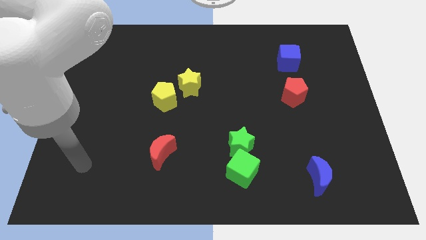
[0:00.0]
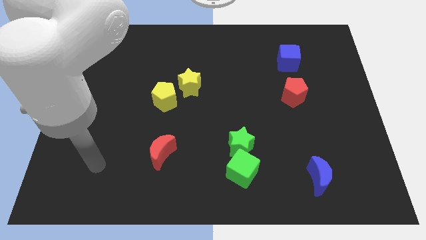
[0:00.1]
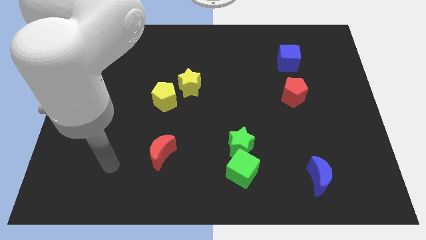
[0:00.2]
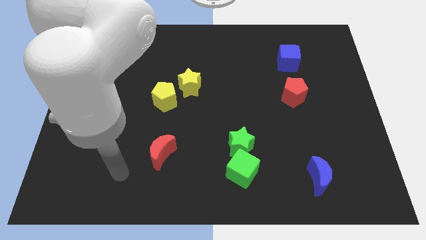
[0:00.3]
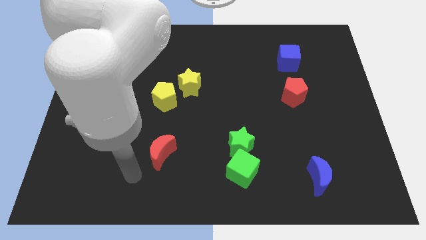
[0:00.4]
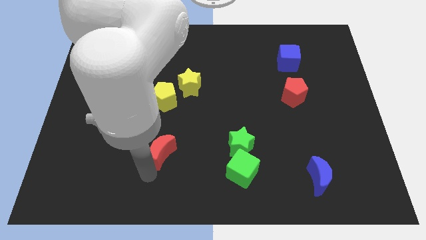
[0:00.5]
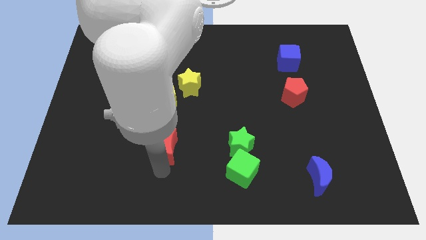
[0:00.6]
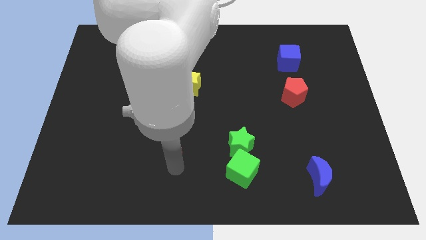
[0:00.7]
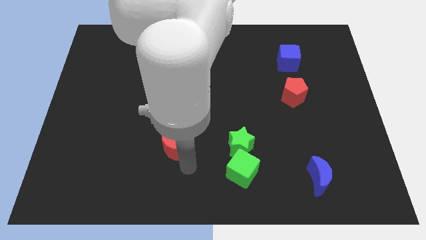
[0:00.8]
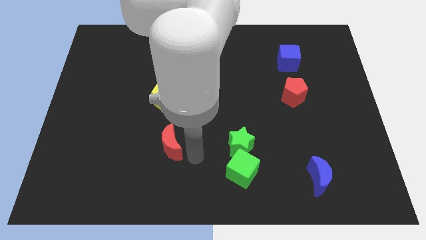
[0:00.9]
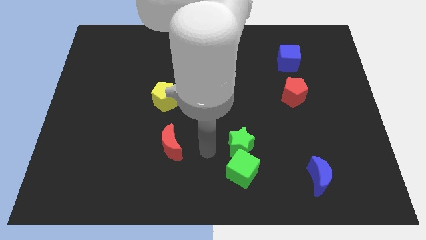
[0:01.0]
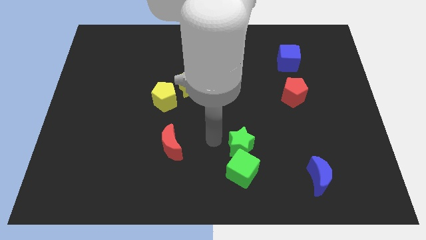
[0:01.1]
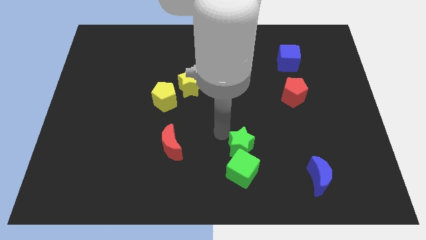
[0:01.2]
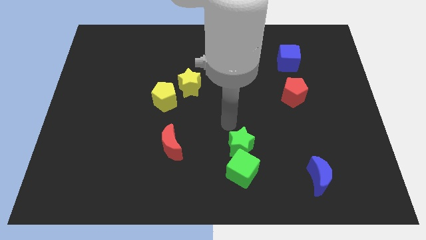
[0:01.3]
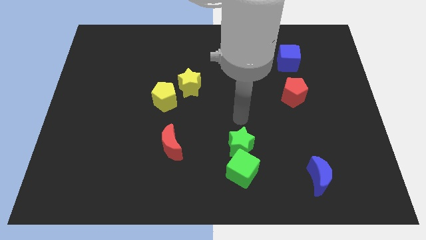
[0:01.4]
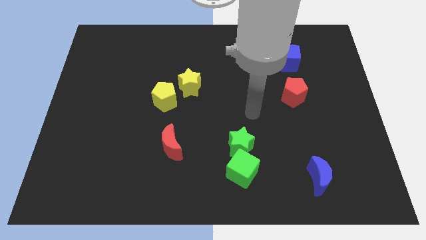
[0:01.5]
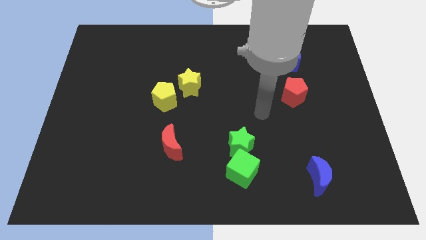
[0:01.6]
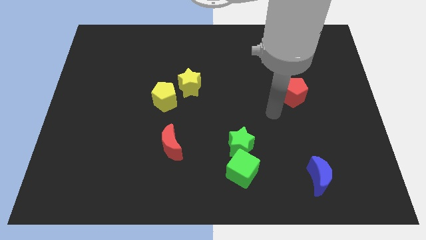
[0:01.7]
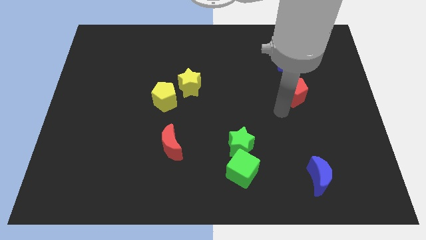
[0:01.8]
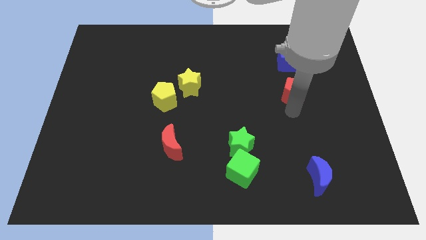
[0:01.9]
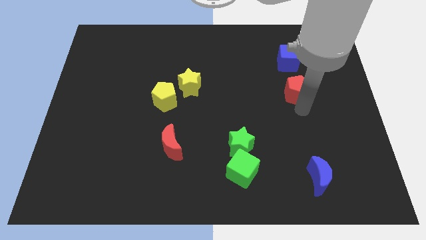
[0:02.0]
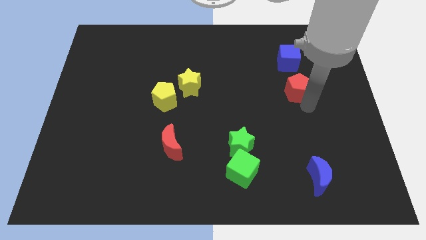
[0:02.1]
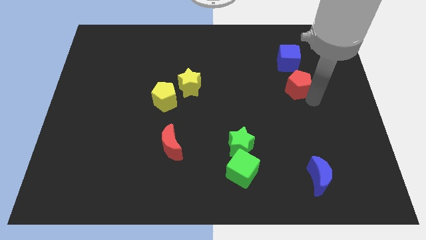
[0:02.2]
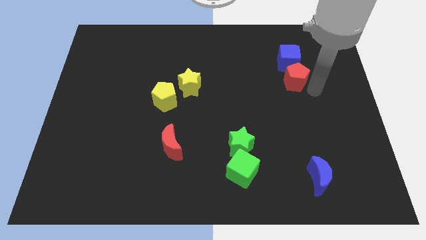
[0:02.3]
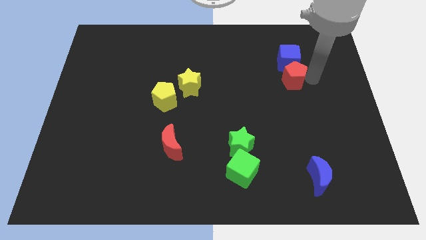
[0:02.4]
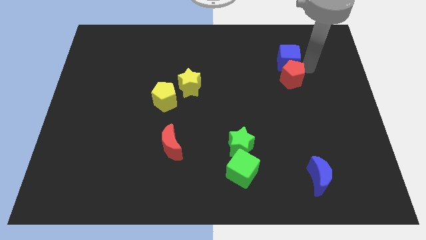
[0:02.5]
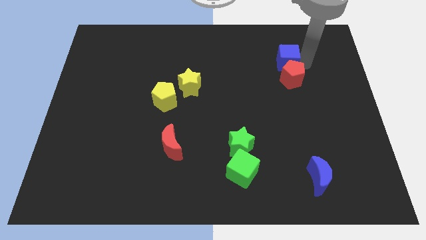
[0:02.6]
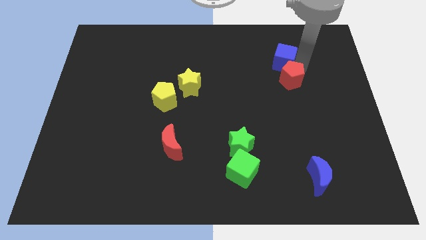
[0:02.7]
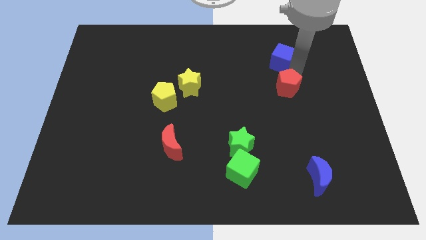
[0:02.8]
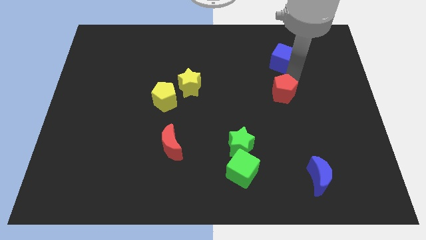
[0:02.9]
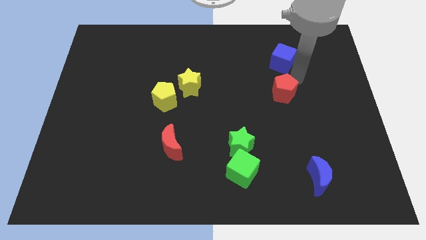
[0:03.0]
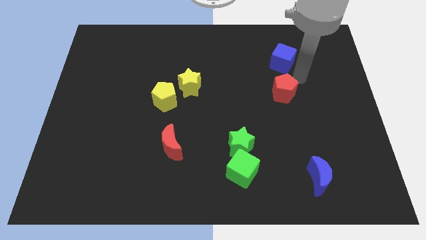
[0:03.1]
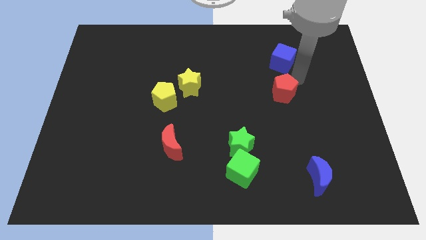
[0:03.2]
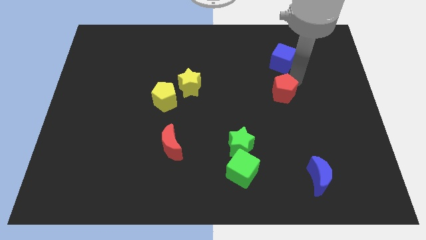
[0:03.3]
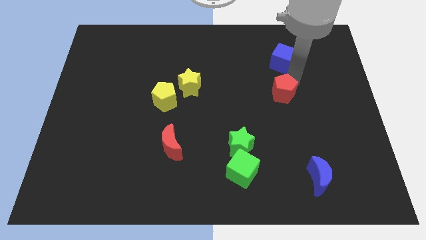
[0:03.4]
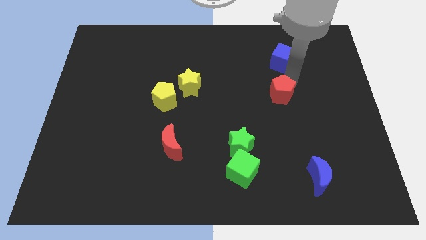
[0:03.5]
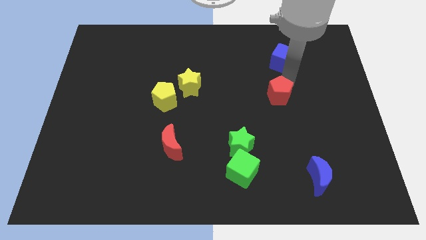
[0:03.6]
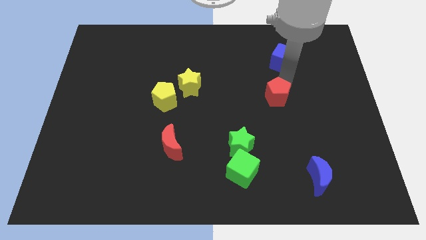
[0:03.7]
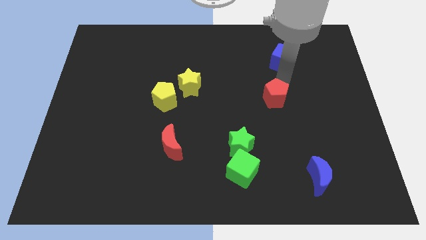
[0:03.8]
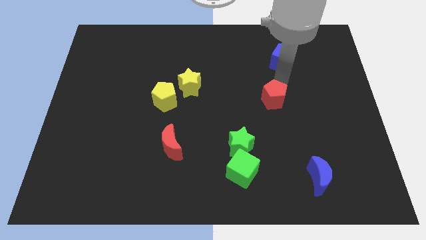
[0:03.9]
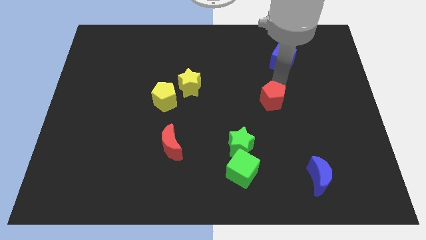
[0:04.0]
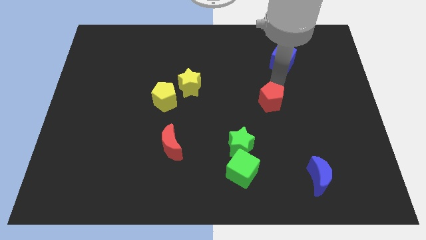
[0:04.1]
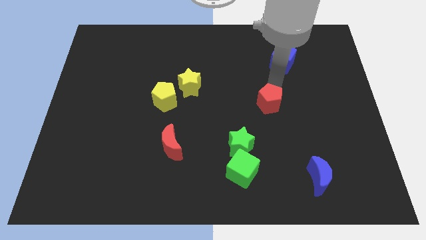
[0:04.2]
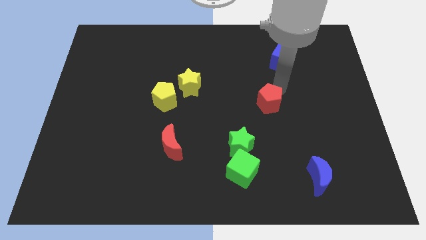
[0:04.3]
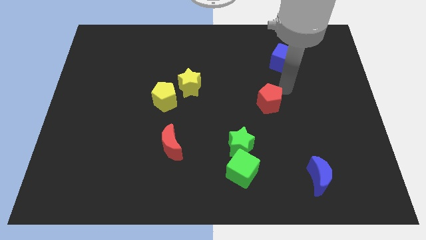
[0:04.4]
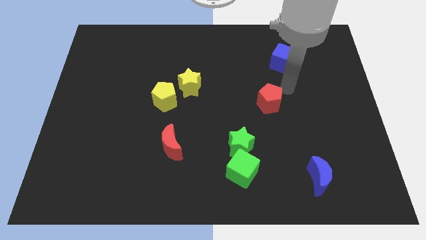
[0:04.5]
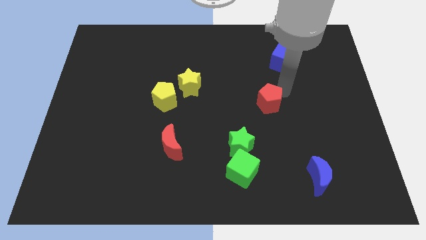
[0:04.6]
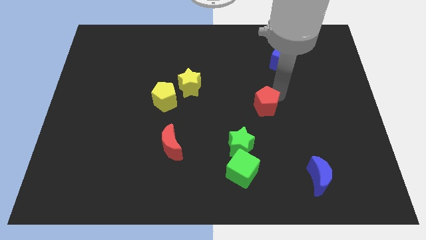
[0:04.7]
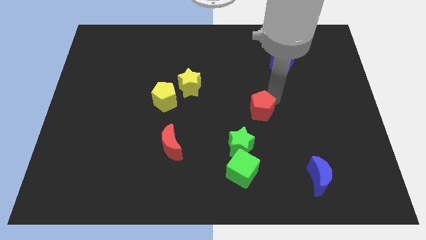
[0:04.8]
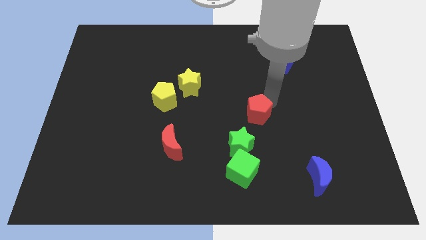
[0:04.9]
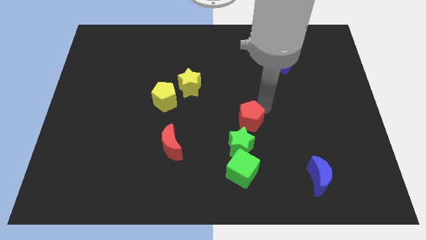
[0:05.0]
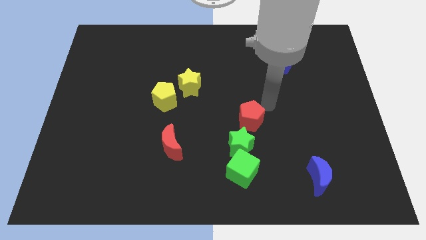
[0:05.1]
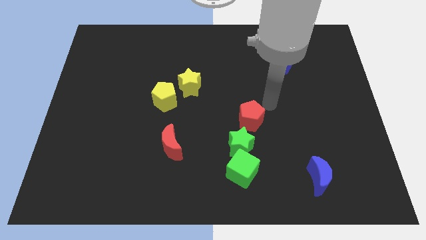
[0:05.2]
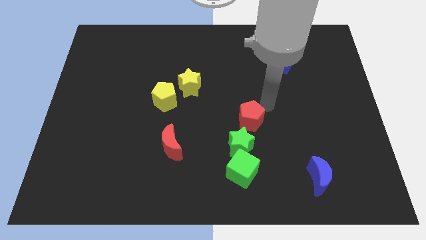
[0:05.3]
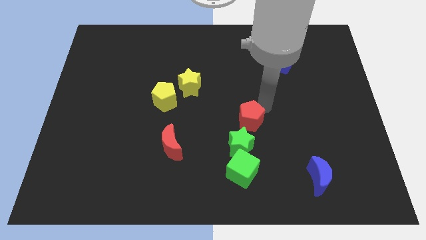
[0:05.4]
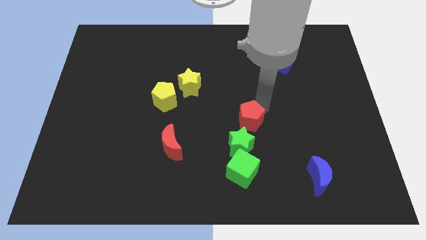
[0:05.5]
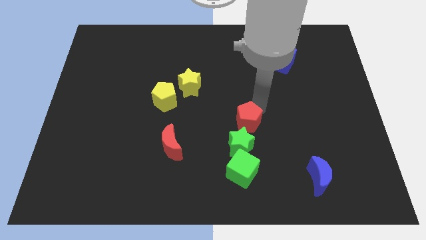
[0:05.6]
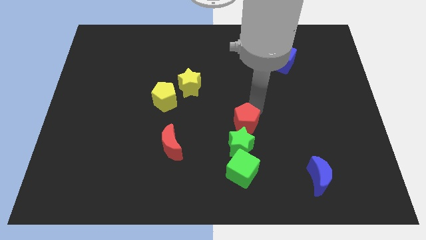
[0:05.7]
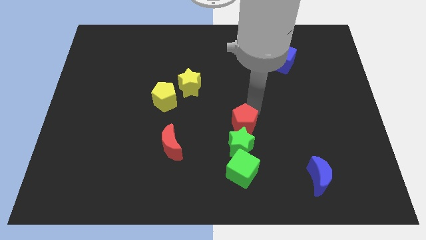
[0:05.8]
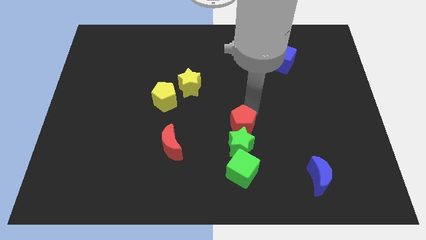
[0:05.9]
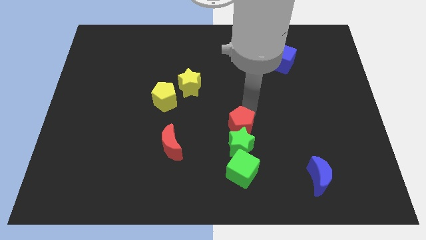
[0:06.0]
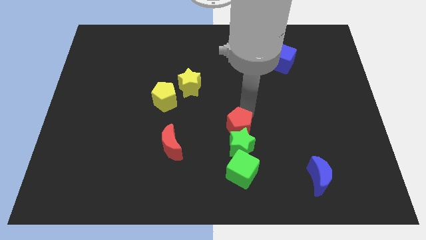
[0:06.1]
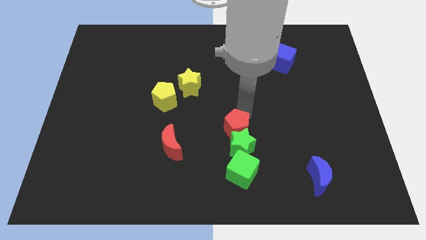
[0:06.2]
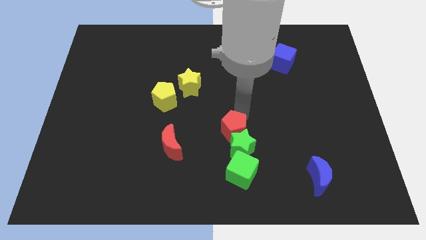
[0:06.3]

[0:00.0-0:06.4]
move the red pentagon to the right side of the red moon

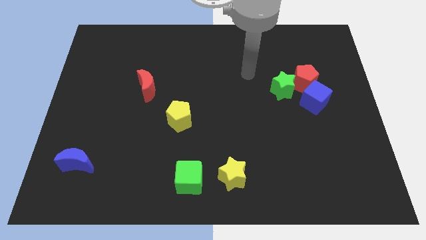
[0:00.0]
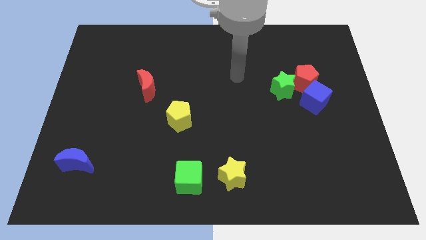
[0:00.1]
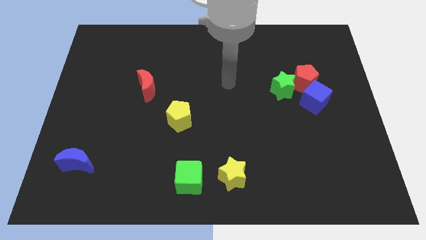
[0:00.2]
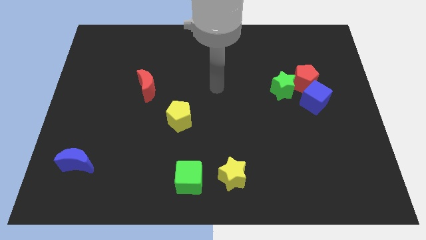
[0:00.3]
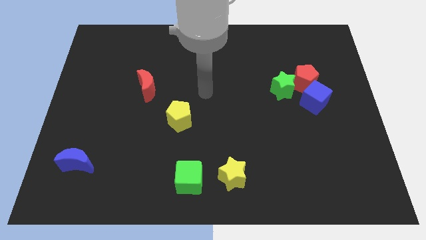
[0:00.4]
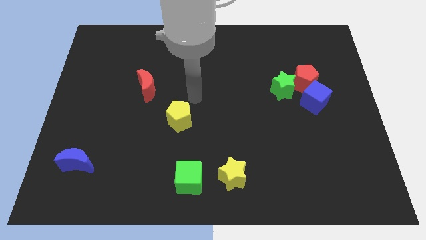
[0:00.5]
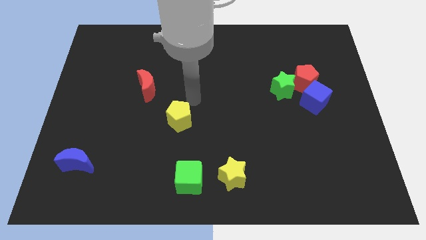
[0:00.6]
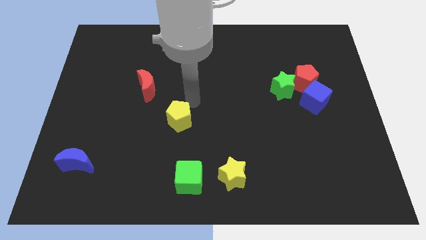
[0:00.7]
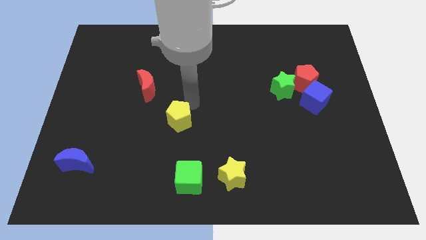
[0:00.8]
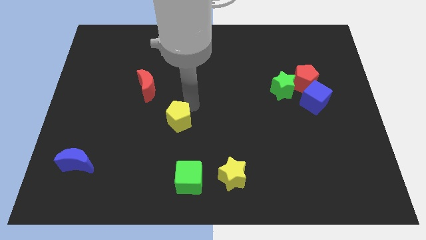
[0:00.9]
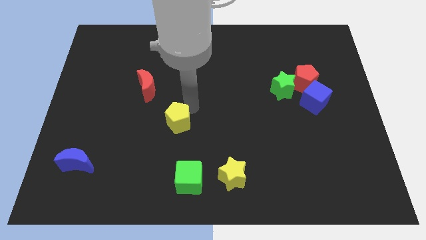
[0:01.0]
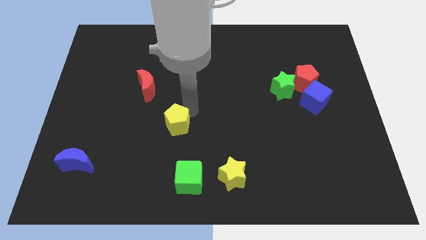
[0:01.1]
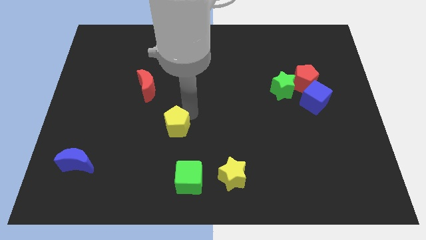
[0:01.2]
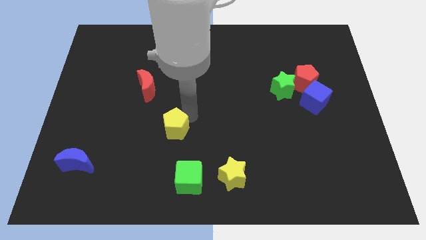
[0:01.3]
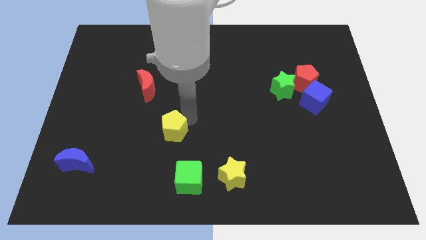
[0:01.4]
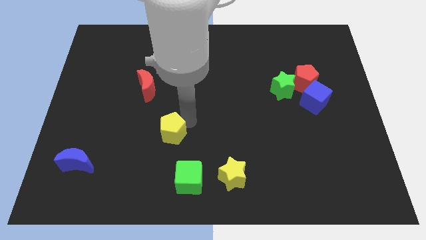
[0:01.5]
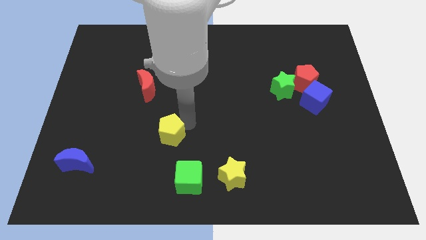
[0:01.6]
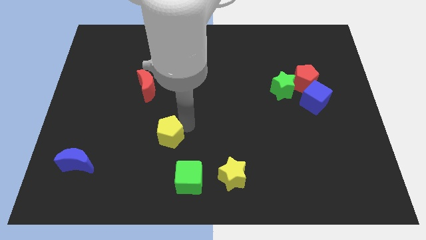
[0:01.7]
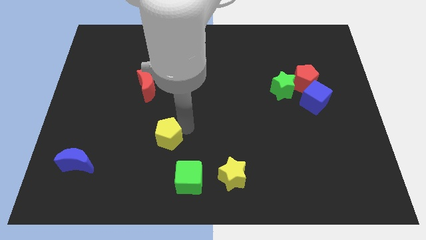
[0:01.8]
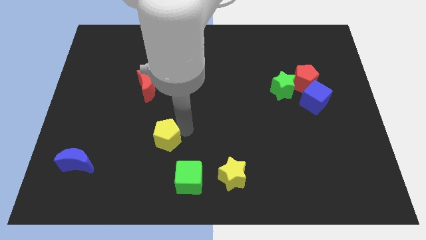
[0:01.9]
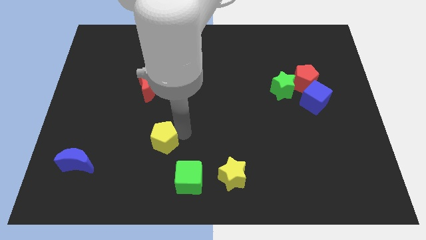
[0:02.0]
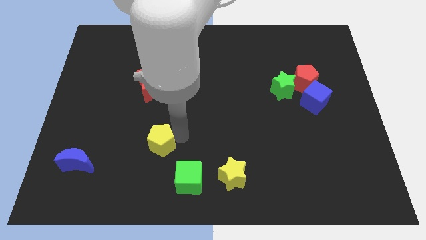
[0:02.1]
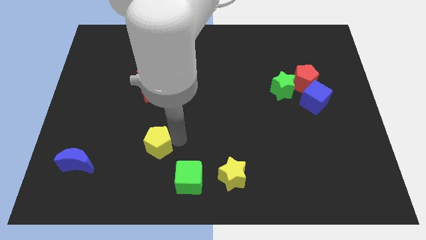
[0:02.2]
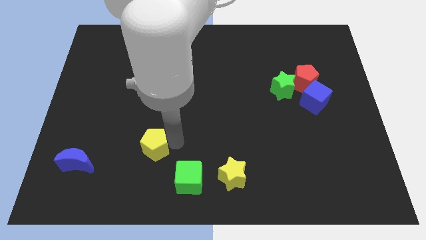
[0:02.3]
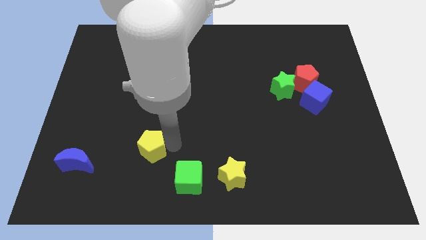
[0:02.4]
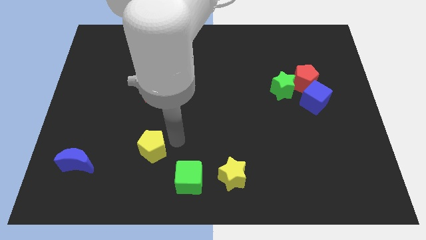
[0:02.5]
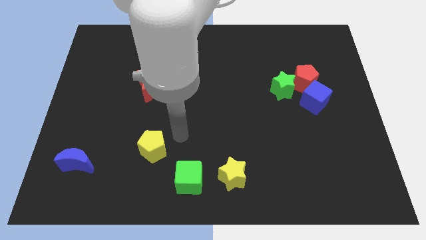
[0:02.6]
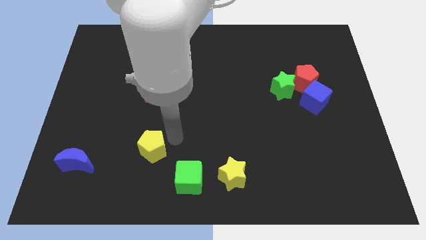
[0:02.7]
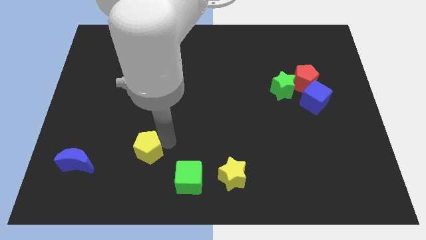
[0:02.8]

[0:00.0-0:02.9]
push the yellow pentagon to the right of the blue moon
